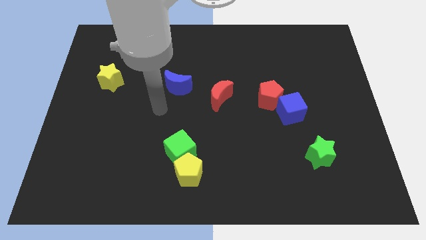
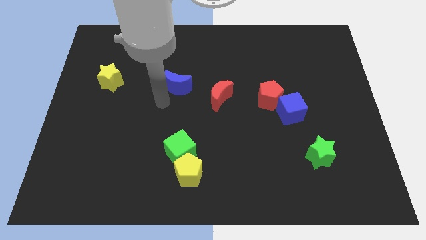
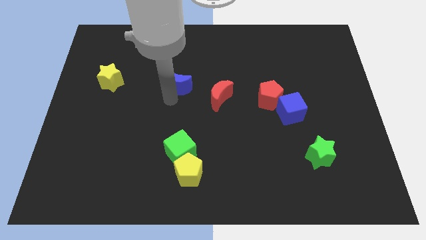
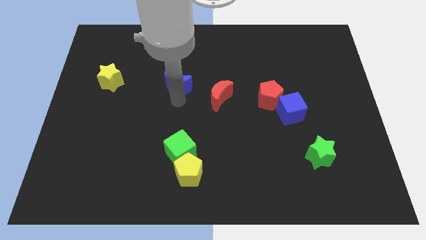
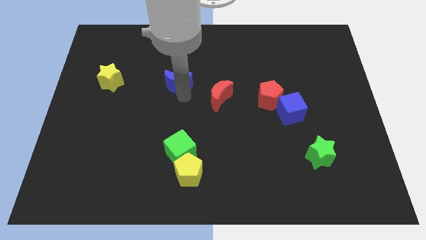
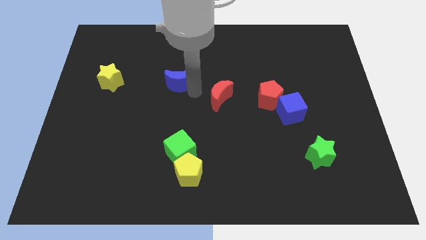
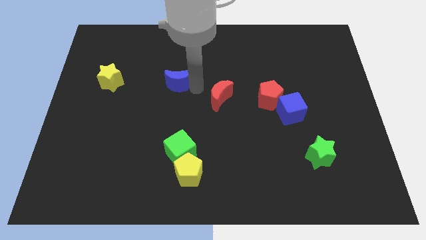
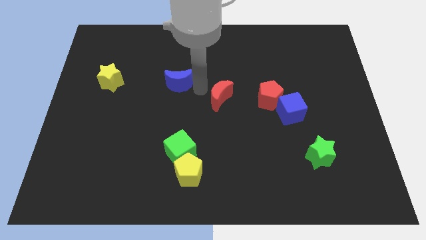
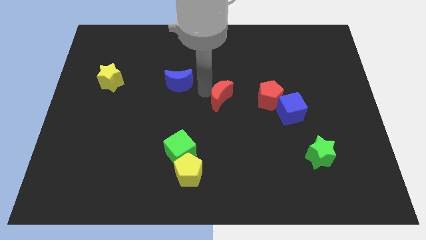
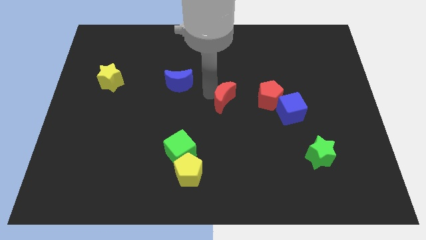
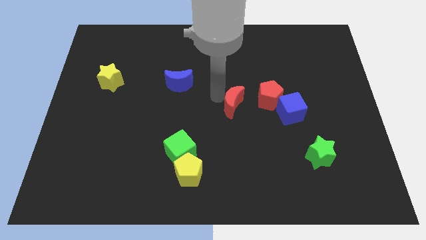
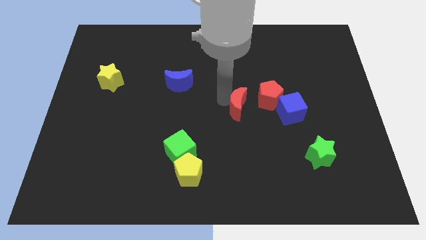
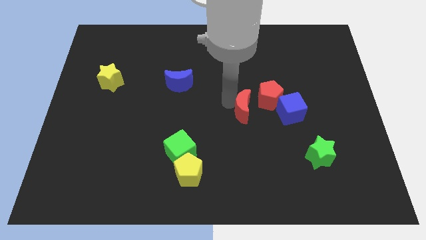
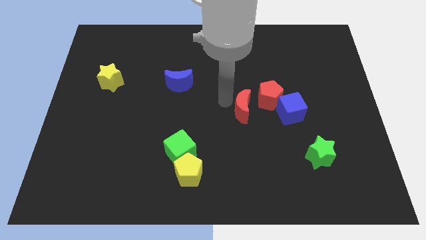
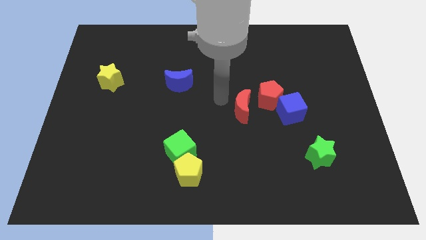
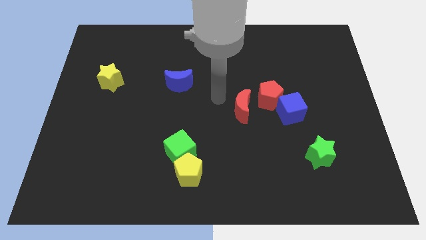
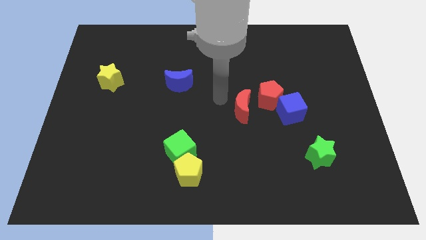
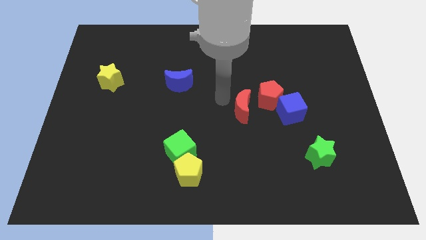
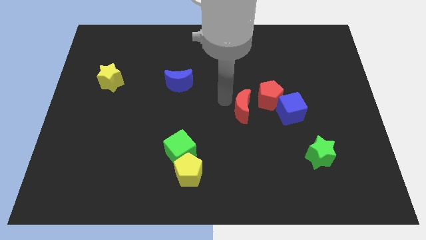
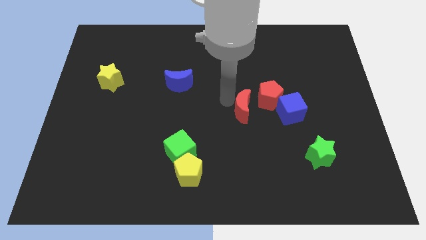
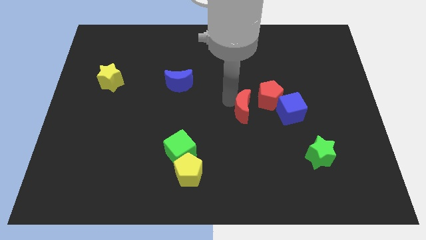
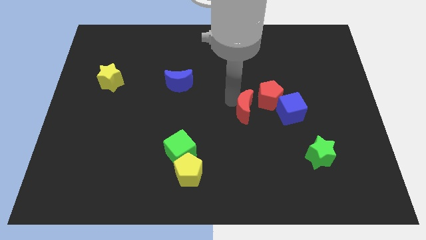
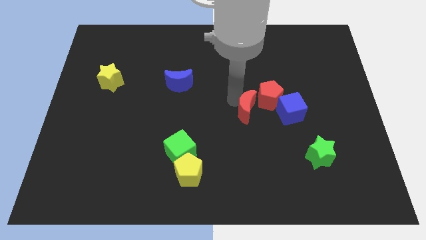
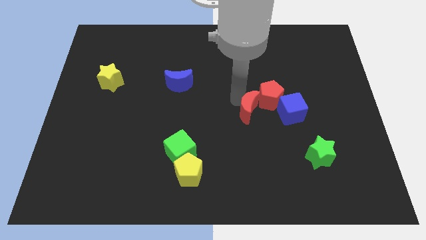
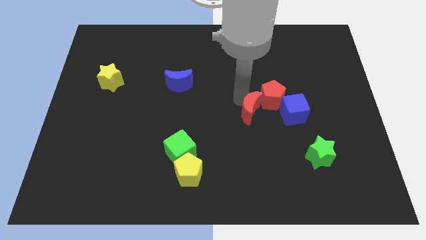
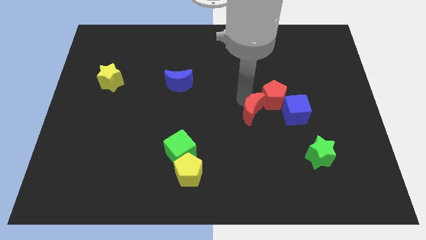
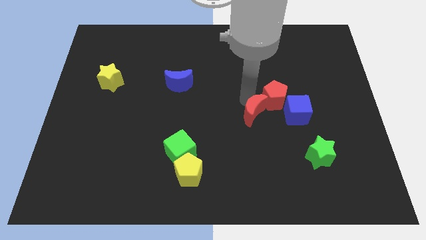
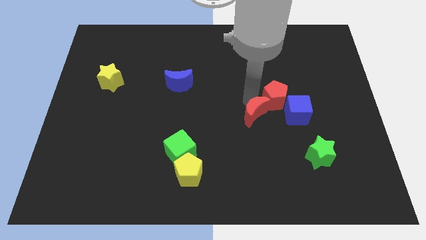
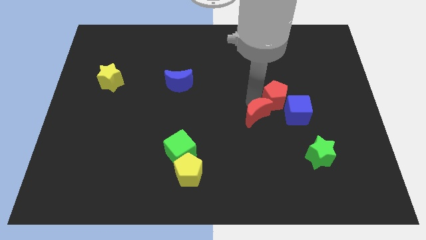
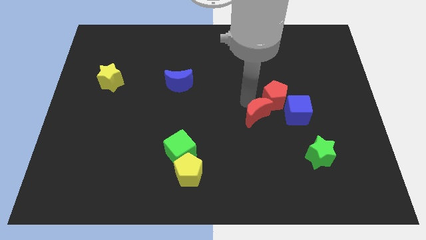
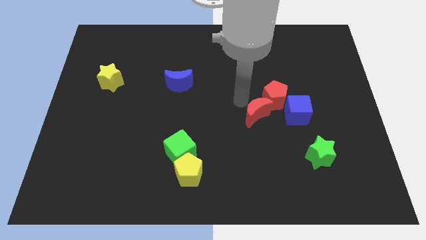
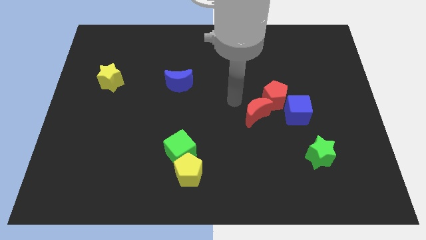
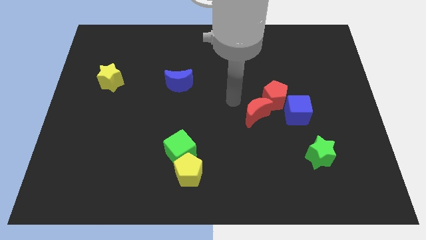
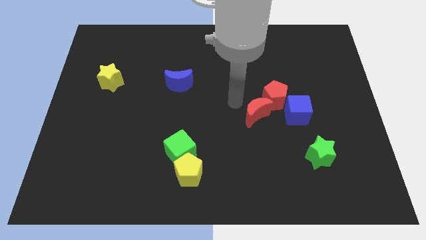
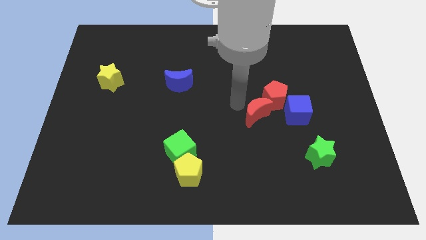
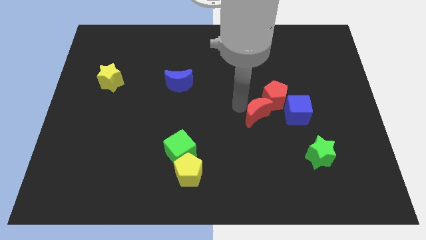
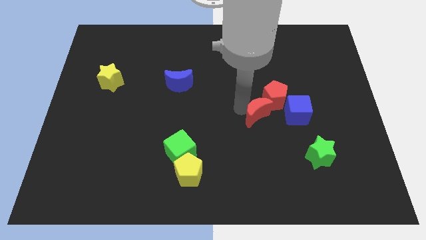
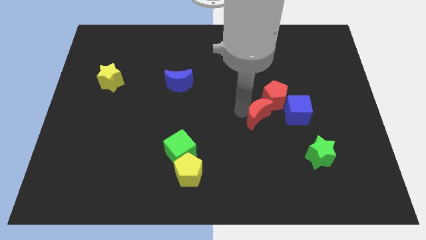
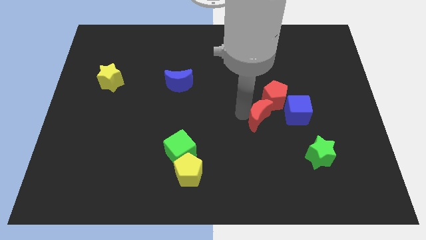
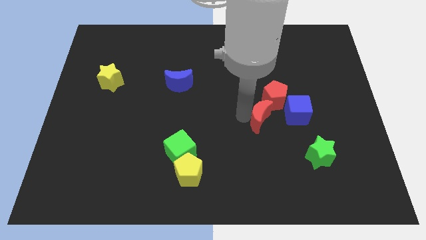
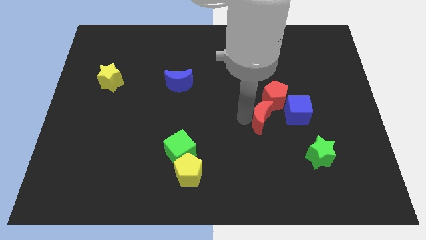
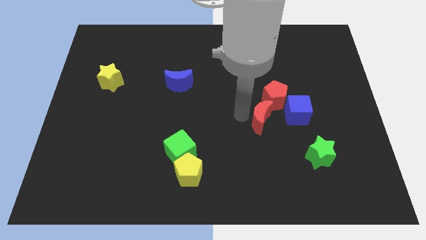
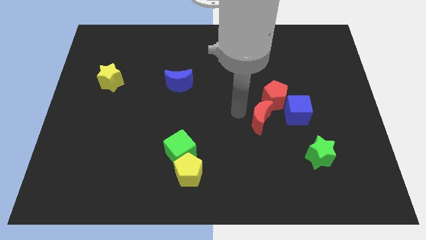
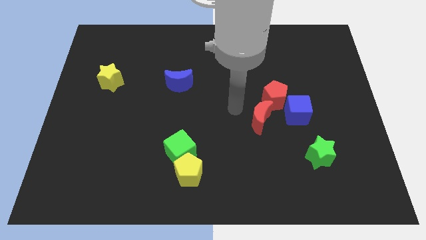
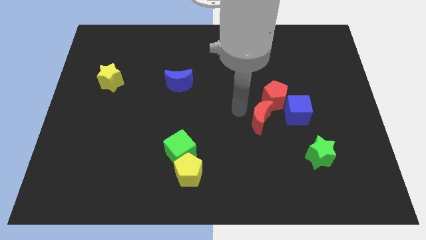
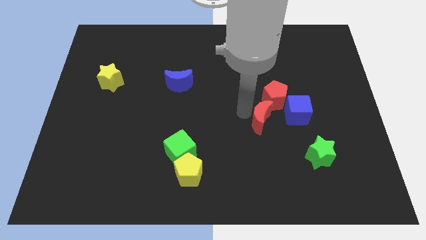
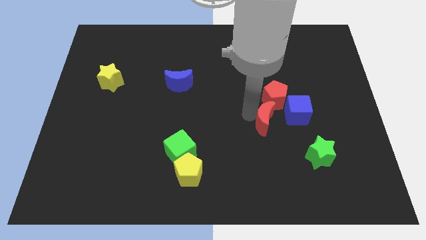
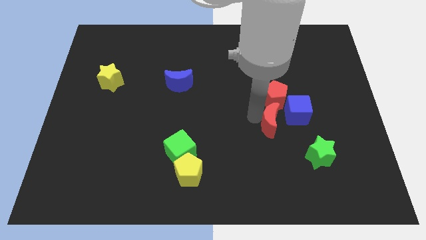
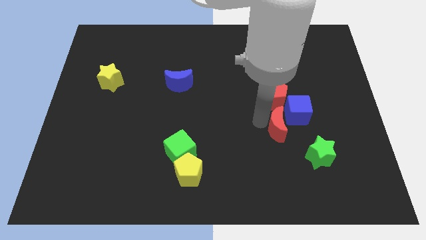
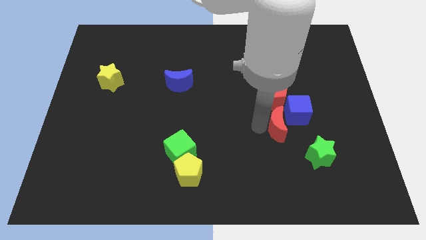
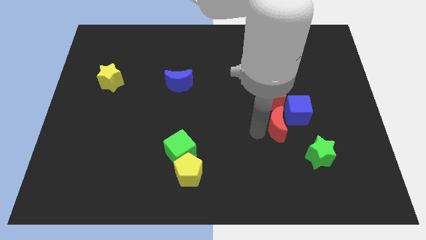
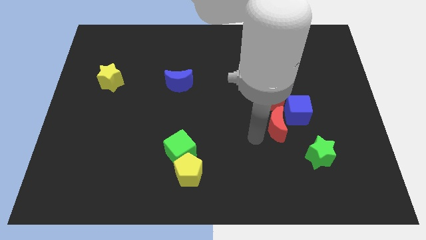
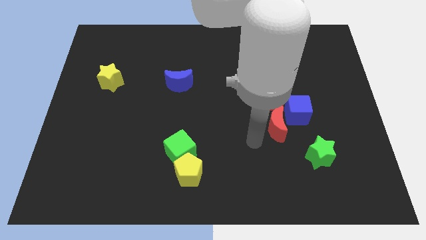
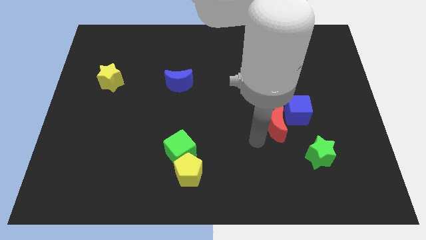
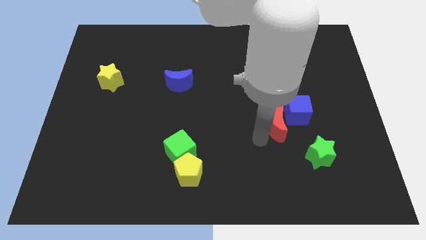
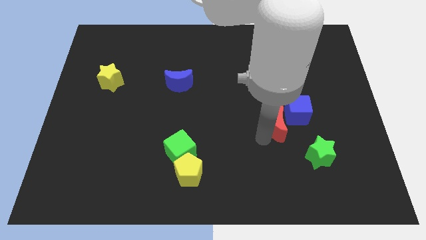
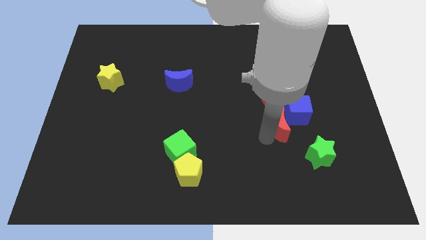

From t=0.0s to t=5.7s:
push the red moon to the blue cube

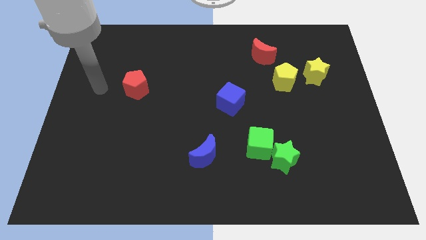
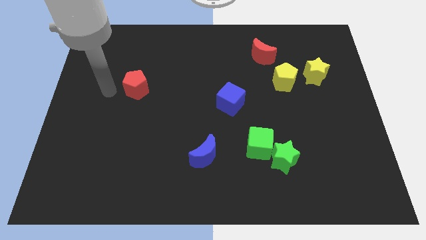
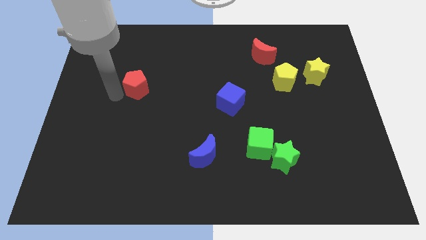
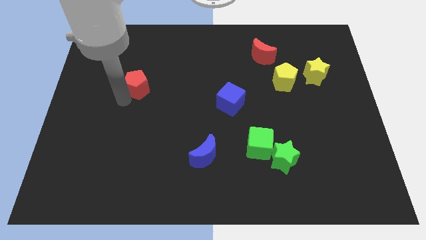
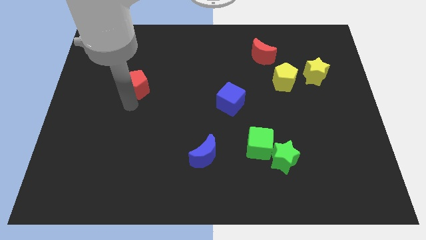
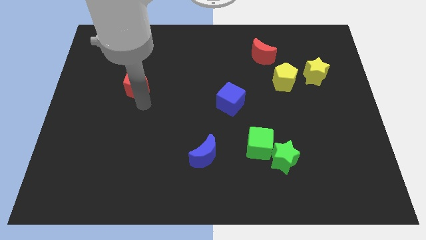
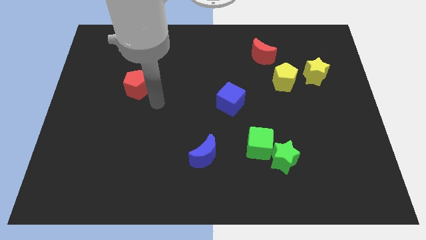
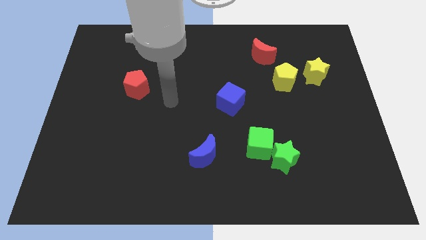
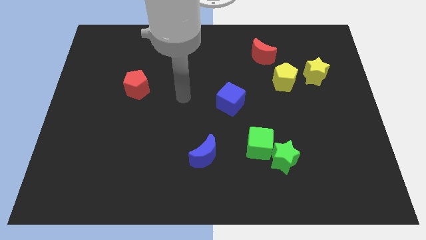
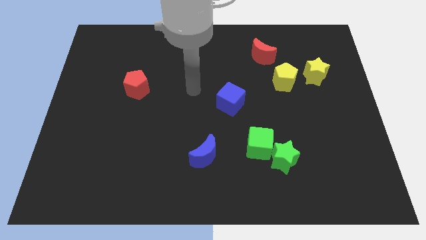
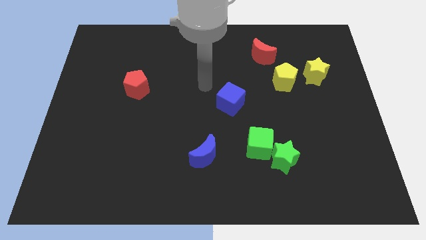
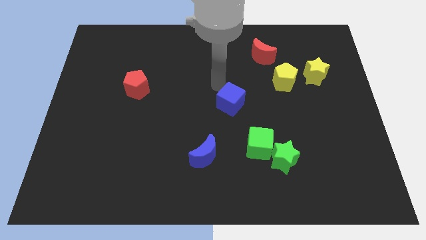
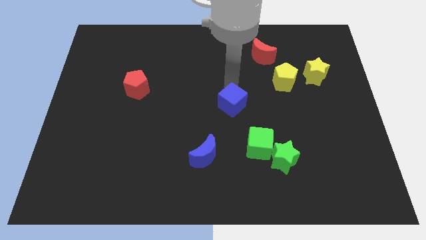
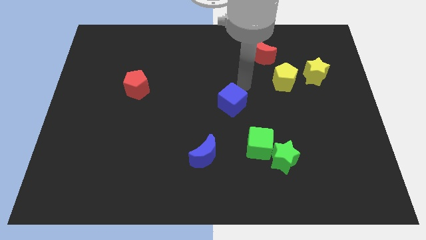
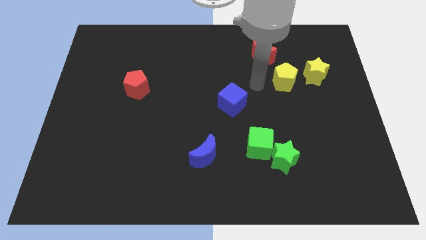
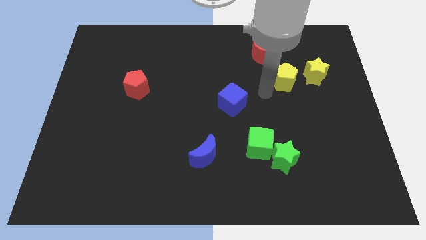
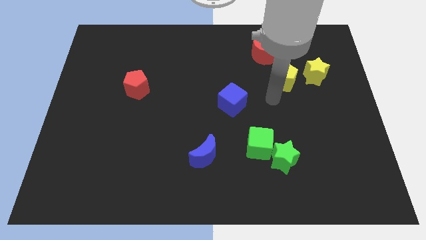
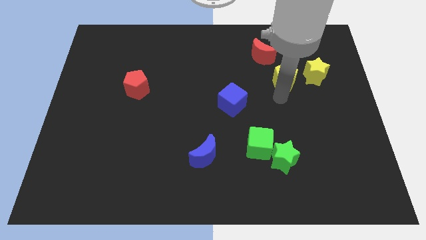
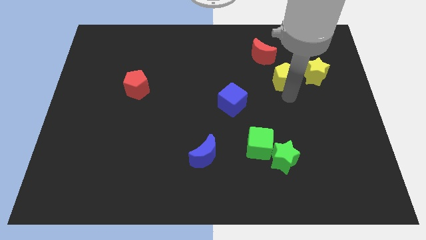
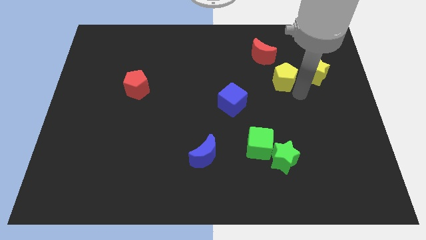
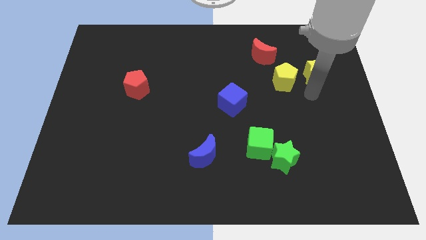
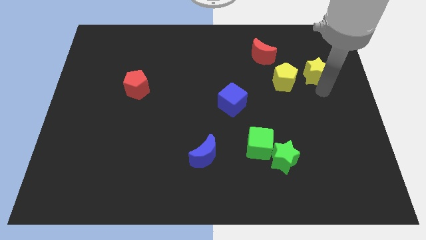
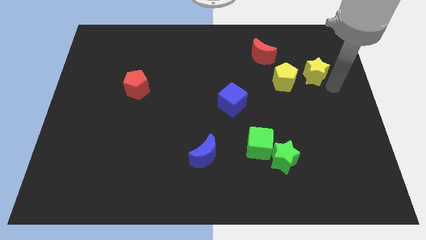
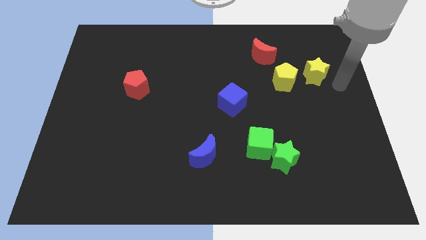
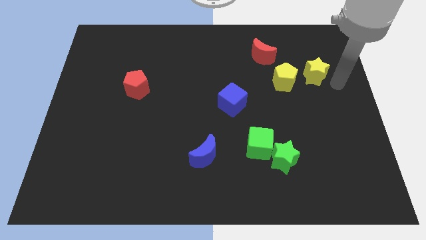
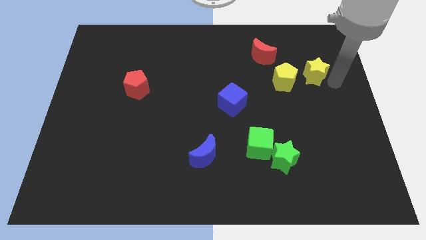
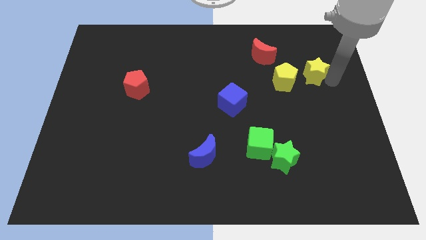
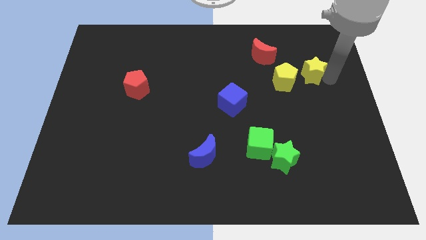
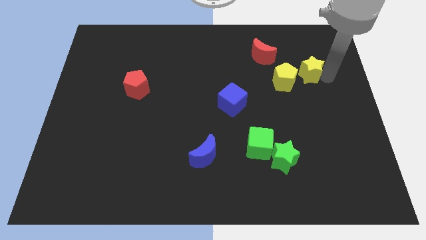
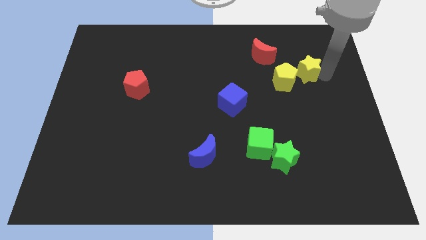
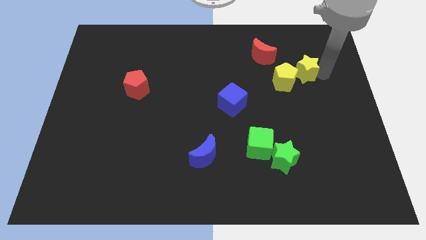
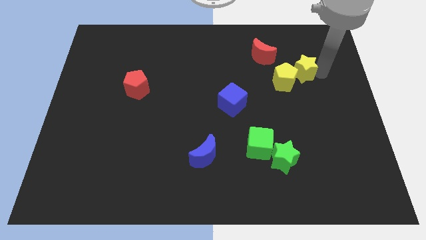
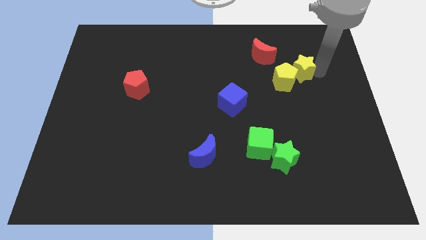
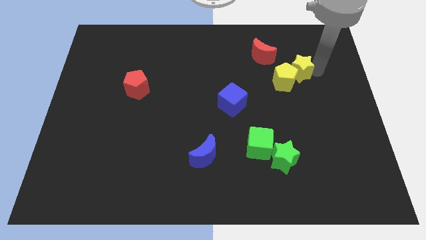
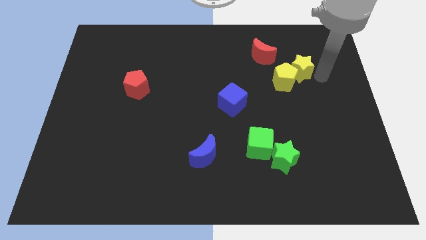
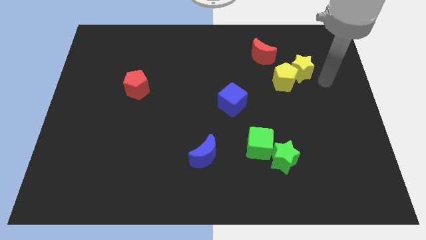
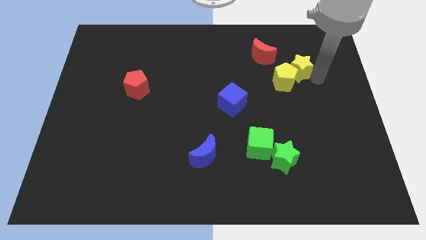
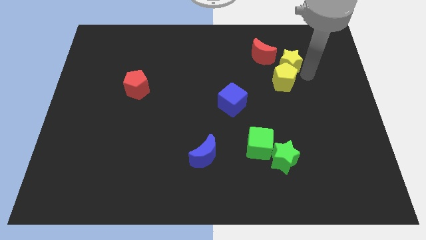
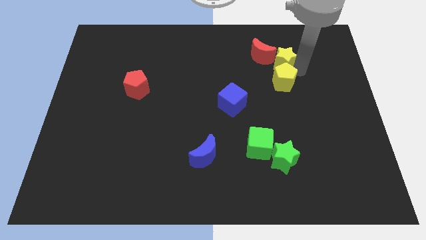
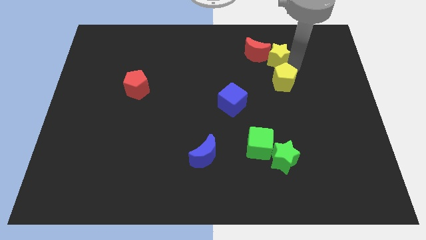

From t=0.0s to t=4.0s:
slide the yellow star next to the red moon
